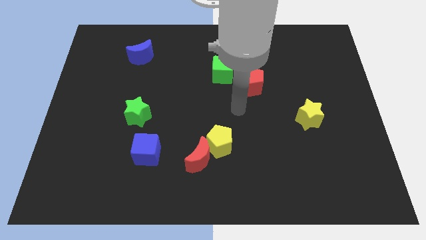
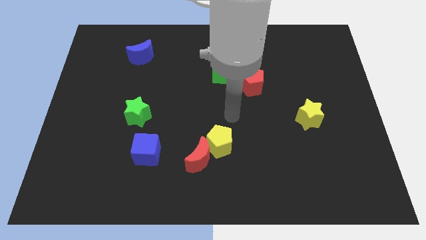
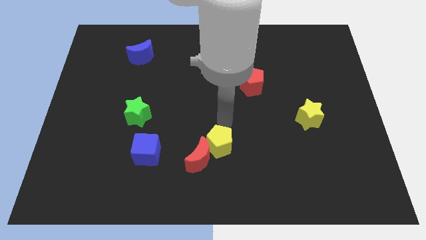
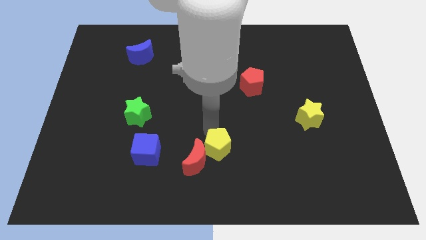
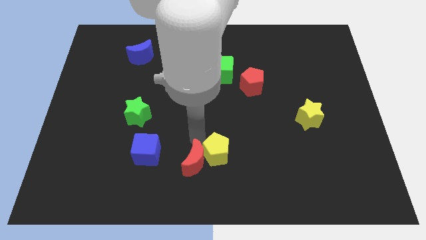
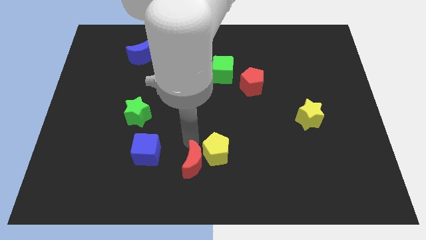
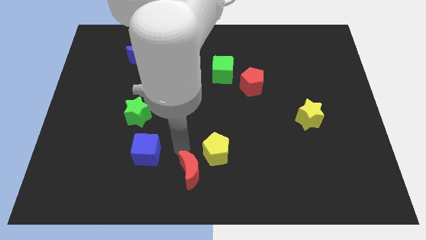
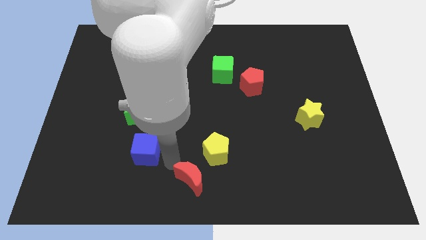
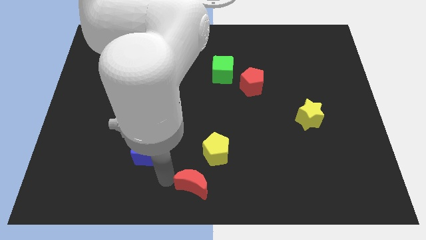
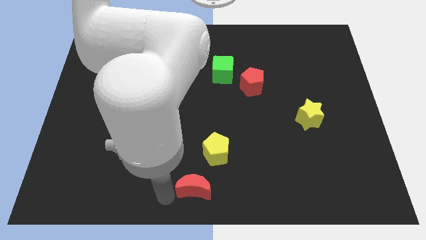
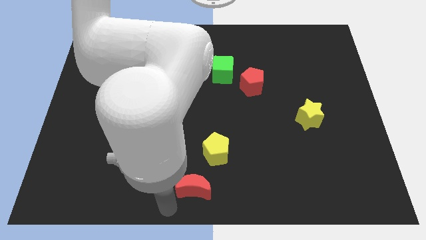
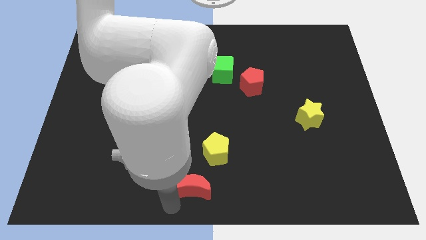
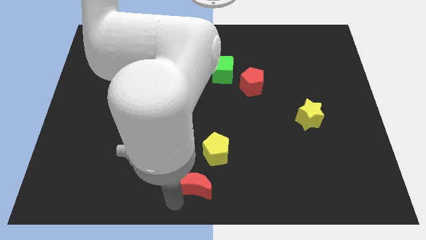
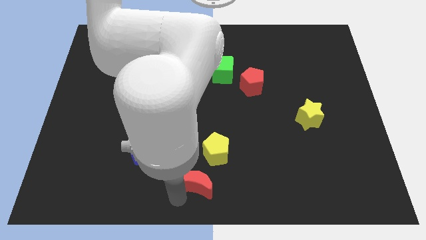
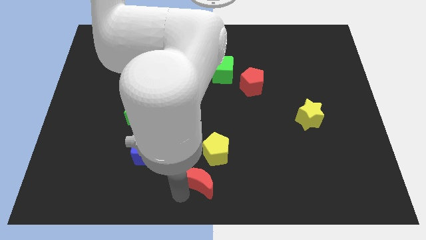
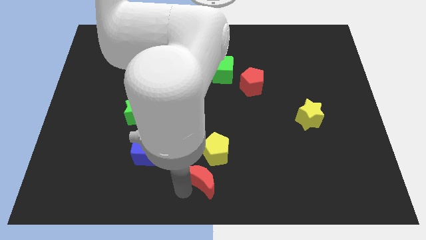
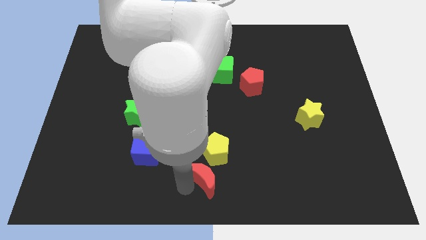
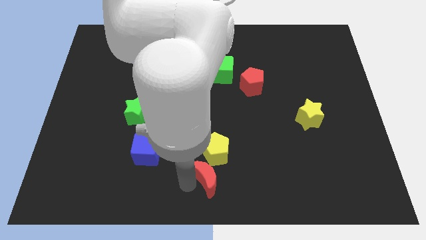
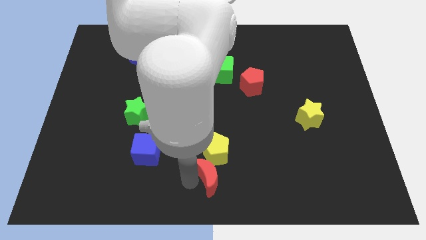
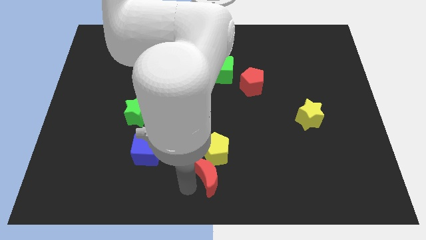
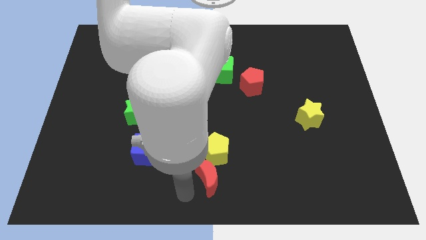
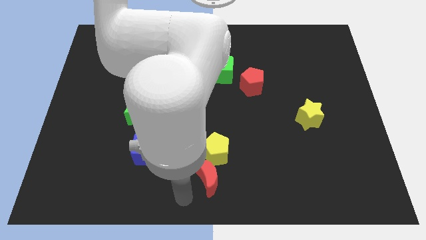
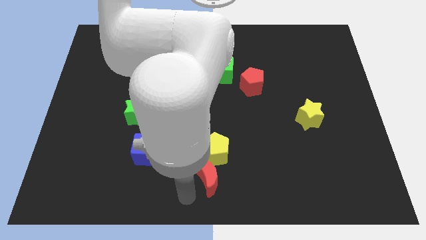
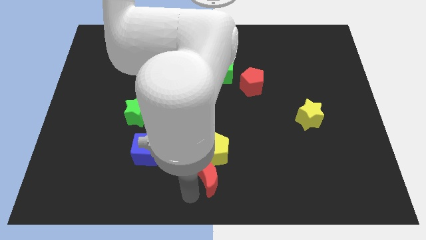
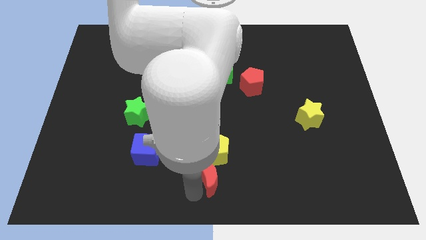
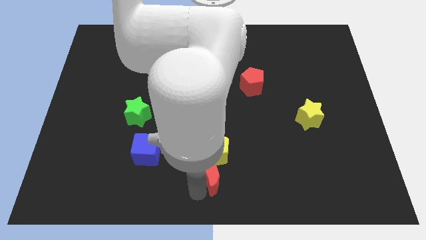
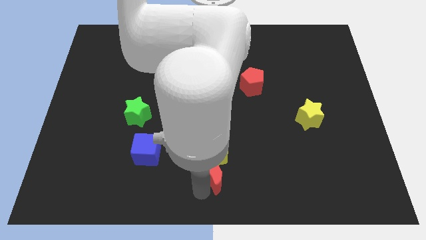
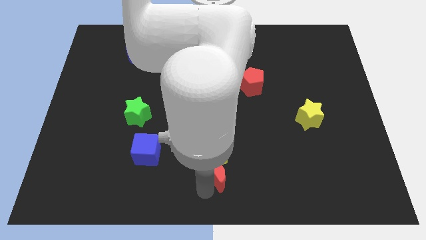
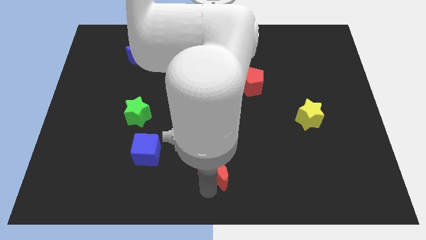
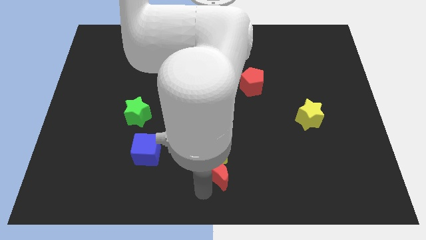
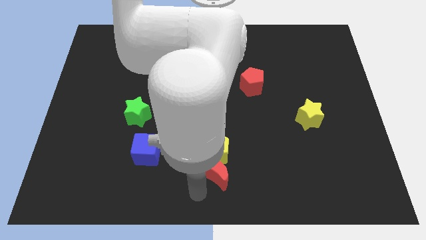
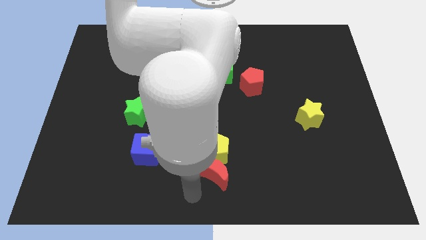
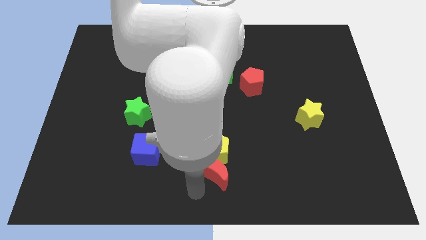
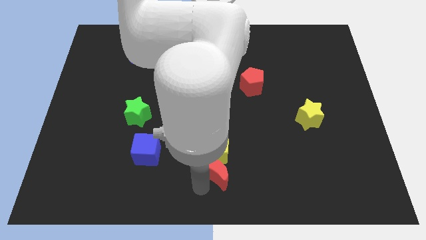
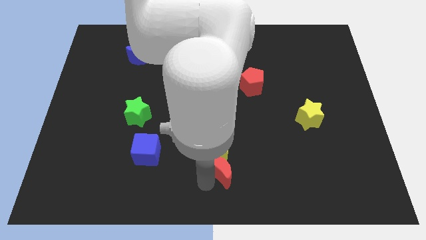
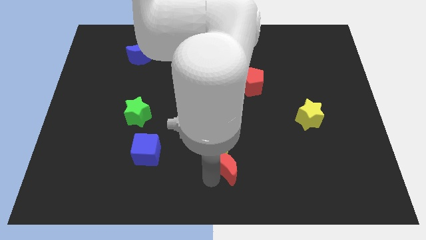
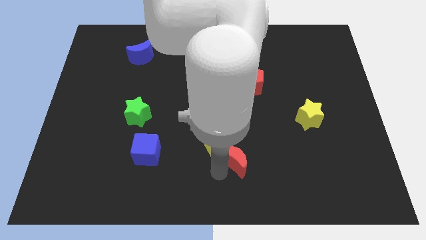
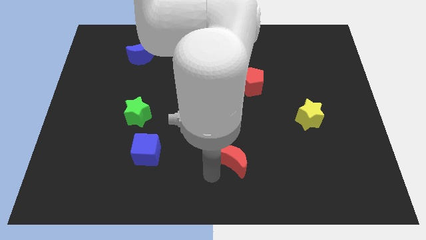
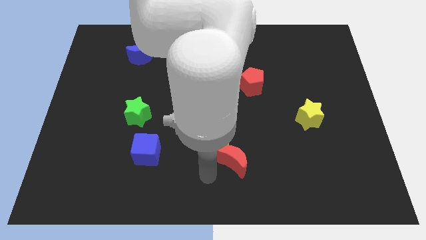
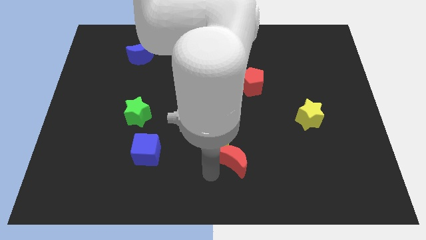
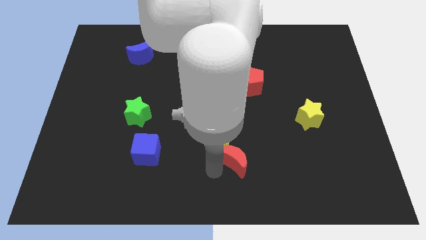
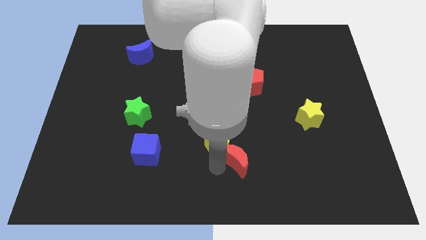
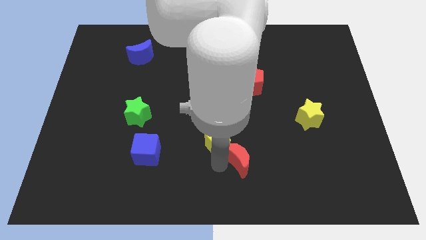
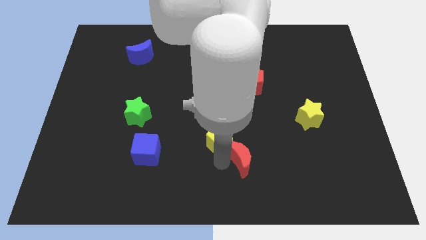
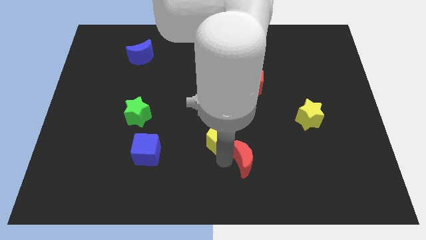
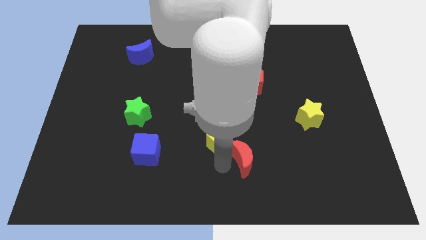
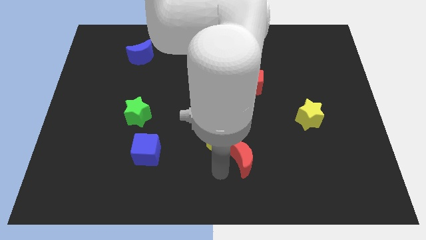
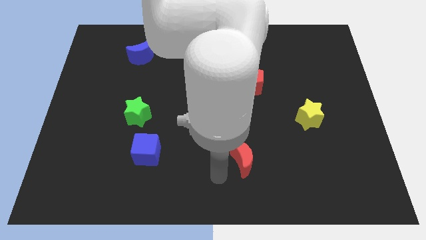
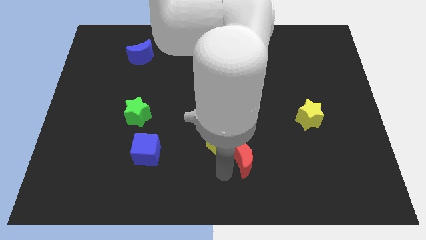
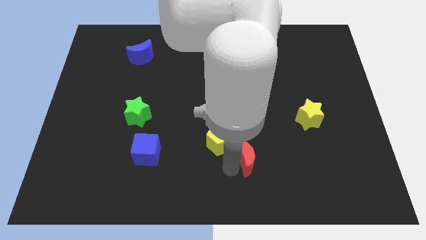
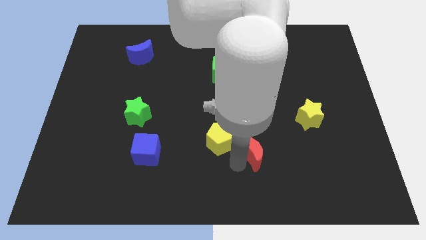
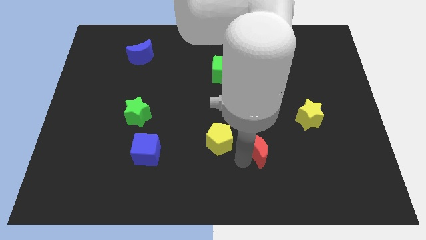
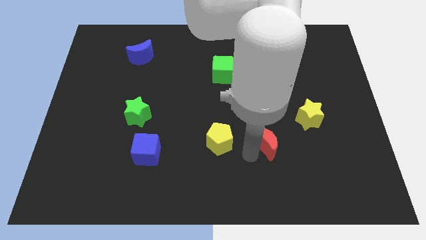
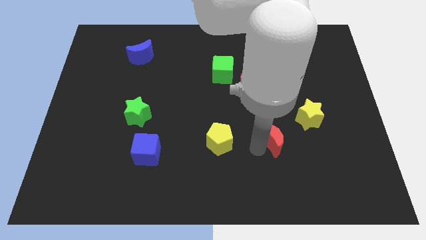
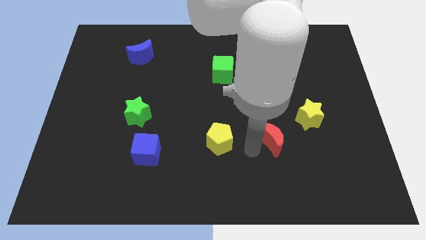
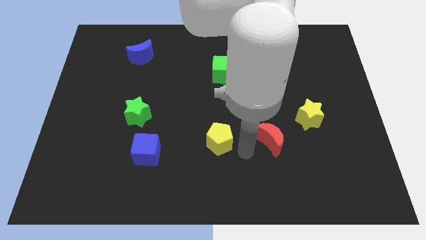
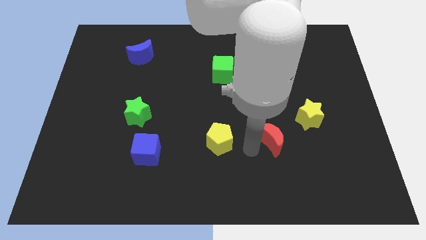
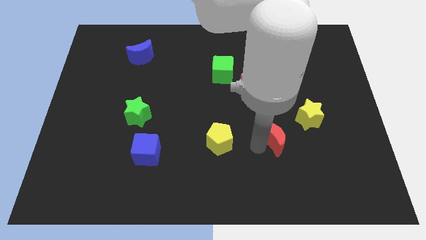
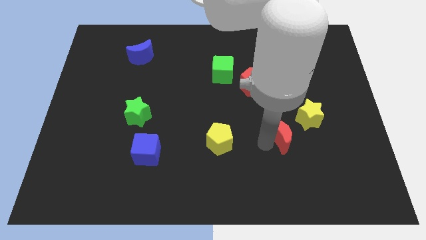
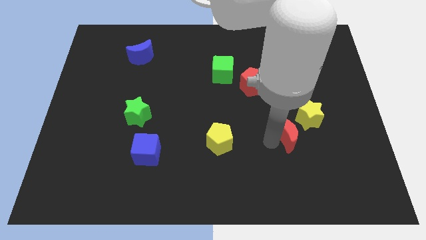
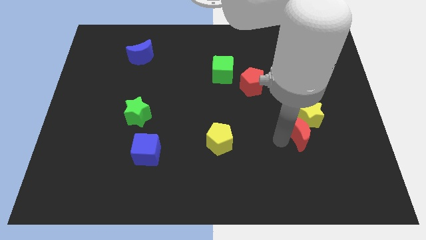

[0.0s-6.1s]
put the red moon to the yellow star
